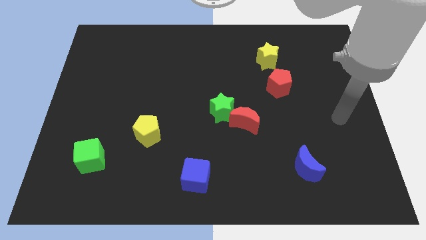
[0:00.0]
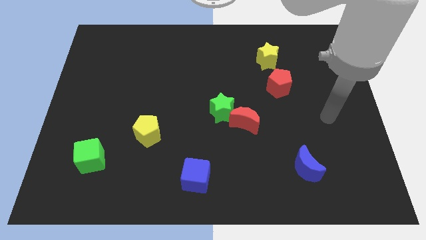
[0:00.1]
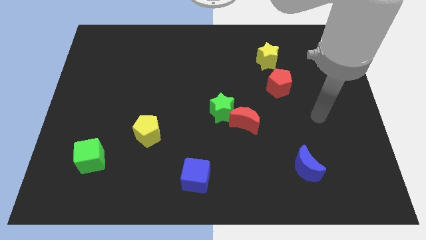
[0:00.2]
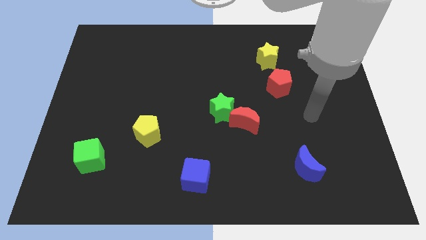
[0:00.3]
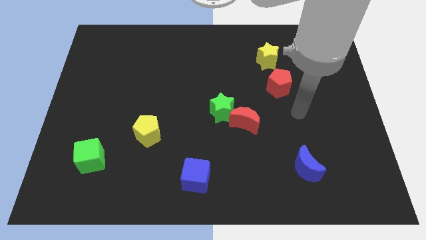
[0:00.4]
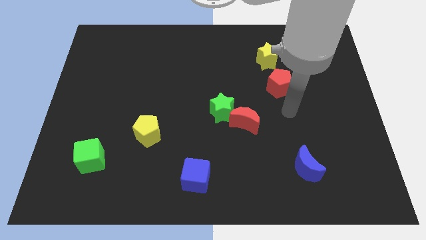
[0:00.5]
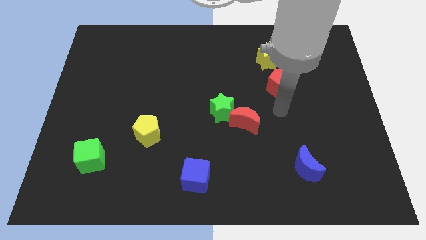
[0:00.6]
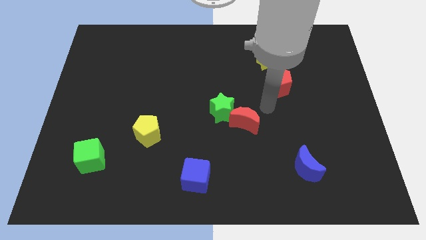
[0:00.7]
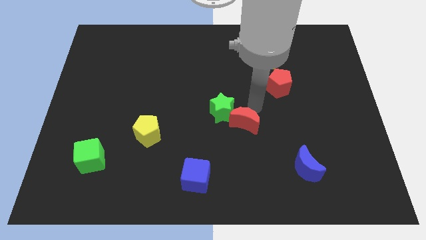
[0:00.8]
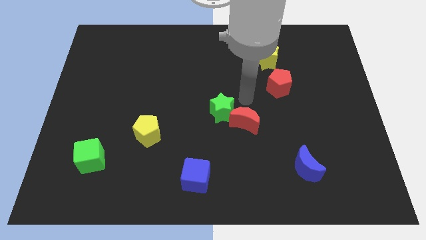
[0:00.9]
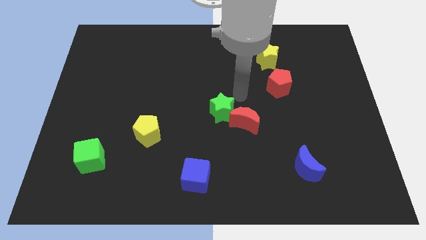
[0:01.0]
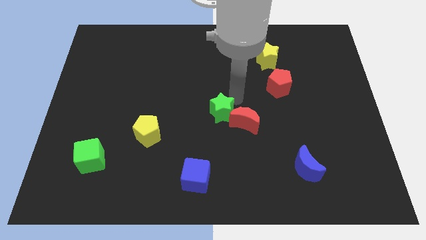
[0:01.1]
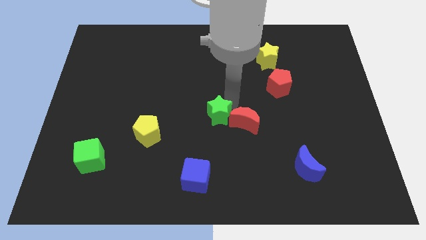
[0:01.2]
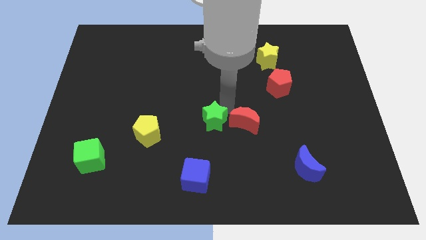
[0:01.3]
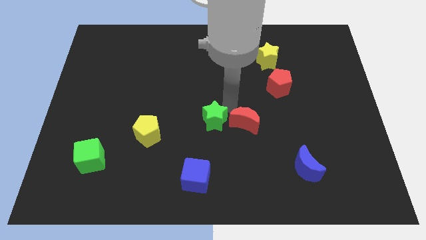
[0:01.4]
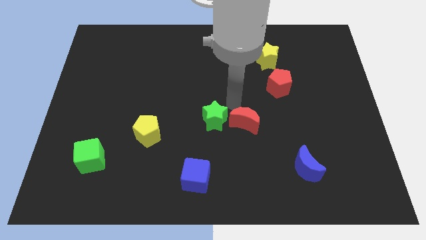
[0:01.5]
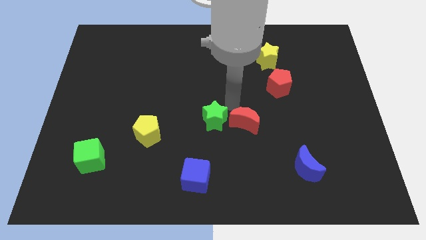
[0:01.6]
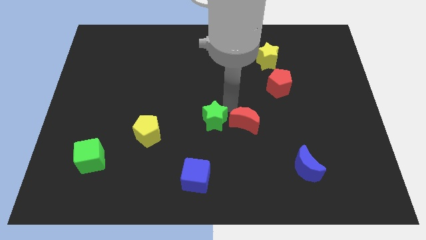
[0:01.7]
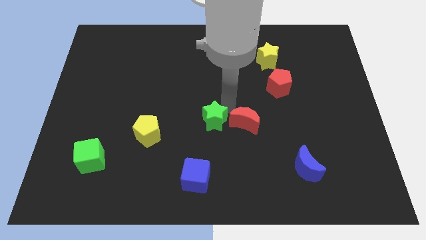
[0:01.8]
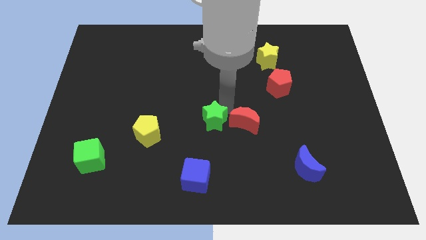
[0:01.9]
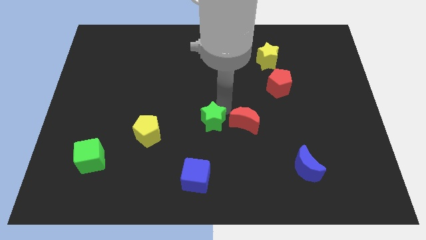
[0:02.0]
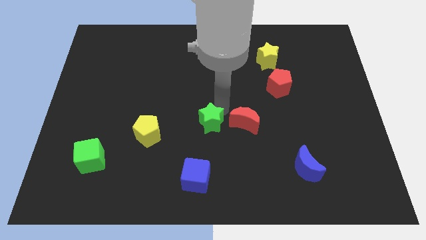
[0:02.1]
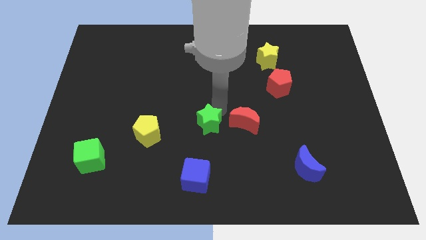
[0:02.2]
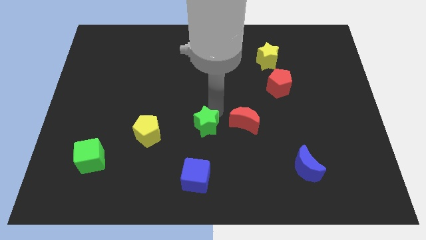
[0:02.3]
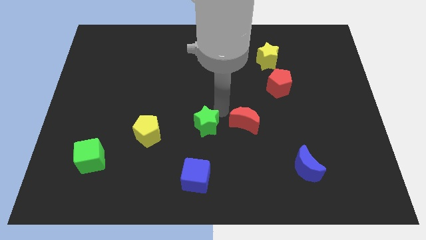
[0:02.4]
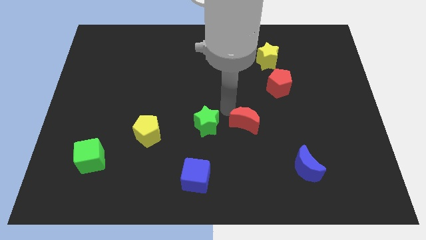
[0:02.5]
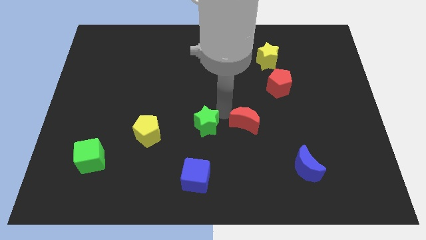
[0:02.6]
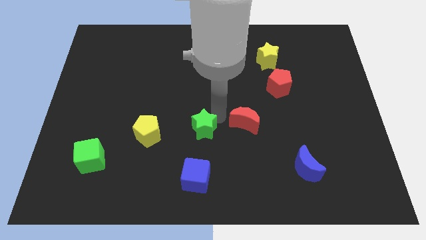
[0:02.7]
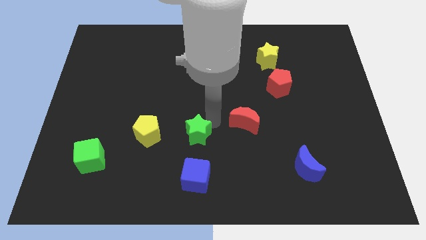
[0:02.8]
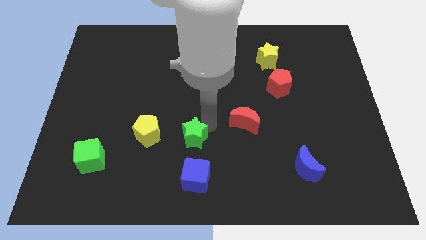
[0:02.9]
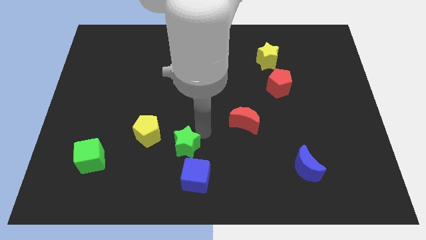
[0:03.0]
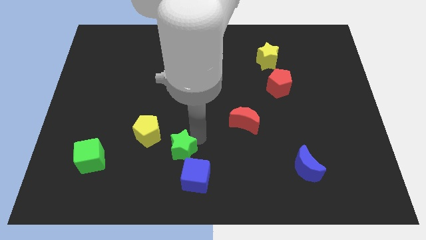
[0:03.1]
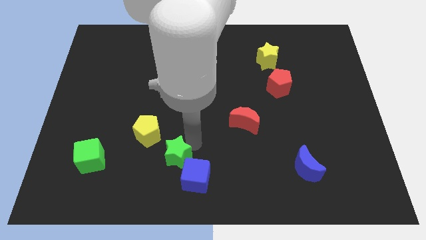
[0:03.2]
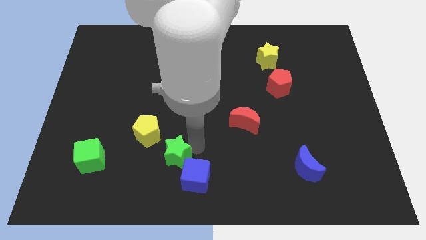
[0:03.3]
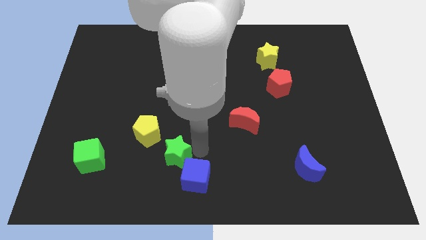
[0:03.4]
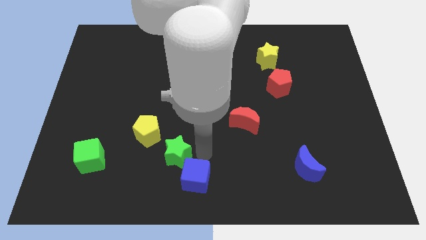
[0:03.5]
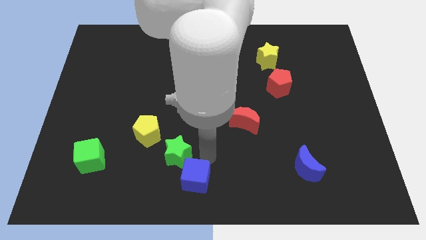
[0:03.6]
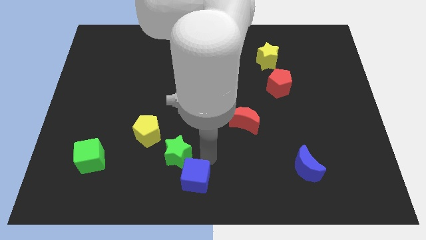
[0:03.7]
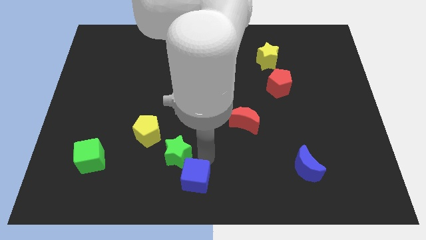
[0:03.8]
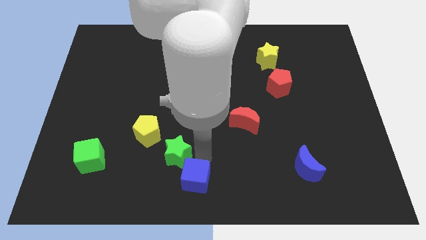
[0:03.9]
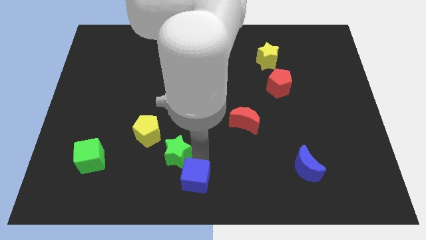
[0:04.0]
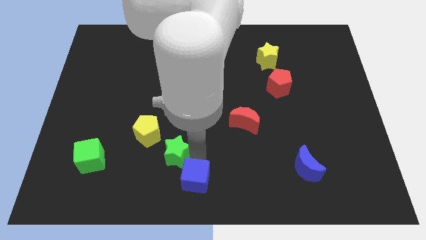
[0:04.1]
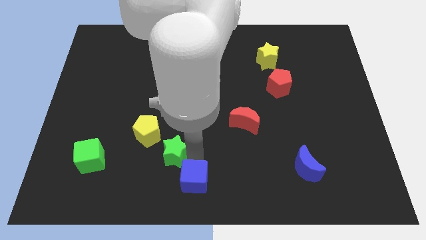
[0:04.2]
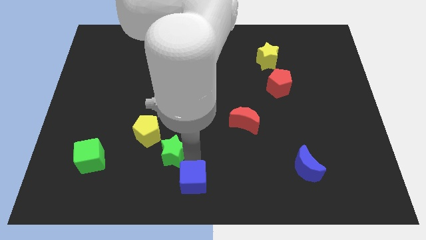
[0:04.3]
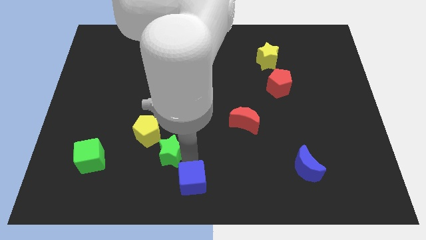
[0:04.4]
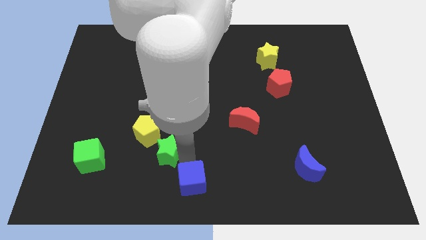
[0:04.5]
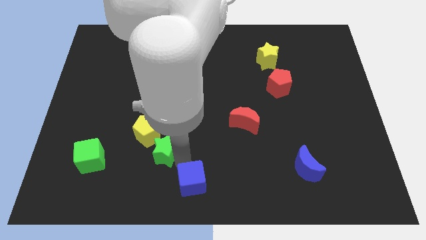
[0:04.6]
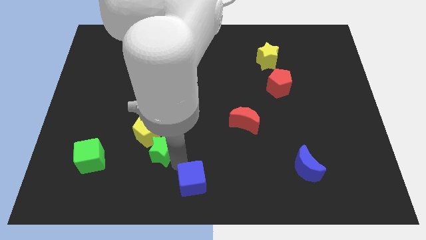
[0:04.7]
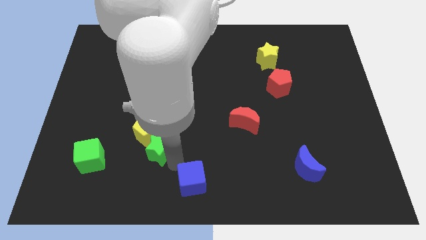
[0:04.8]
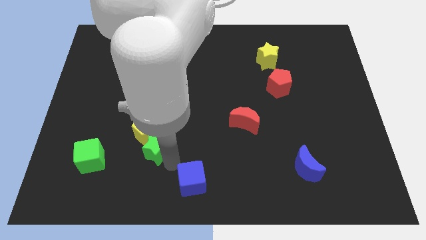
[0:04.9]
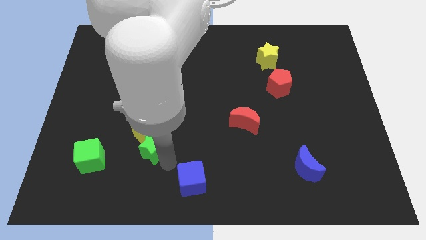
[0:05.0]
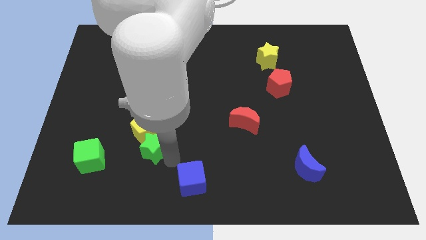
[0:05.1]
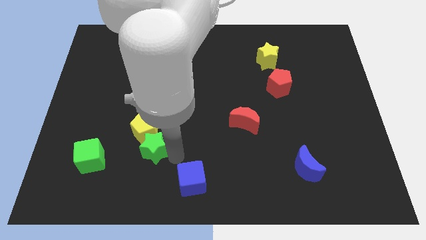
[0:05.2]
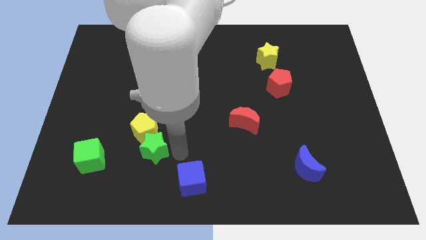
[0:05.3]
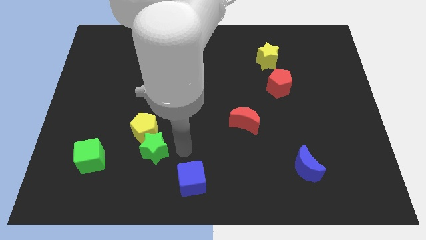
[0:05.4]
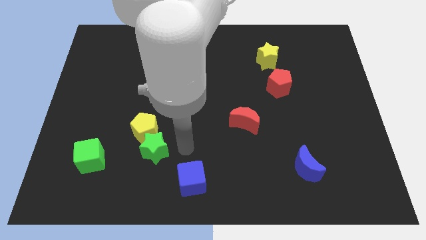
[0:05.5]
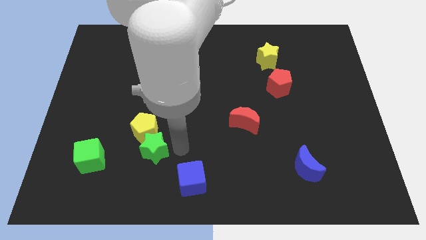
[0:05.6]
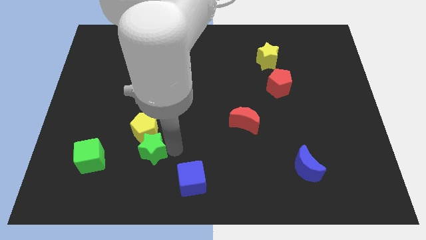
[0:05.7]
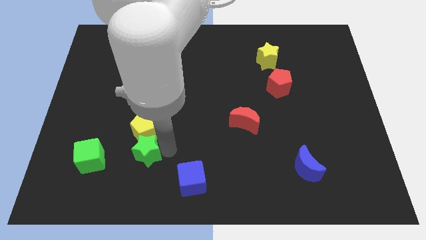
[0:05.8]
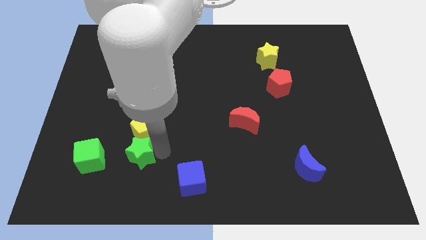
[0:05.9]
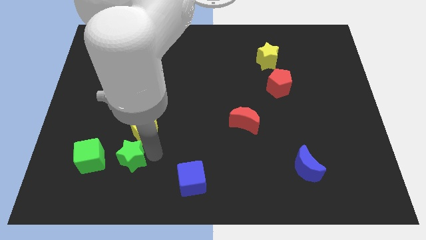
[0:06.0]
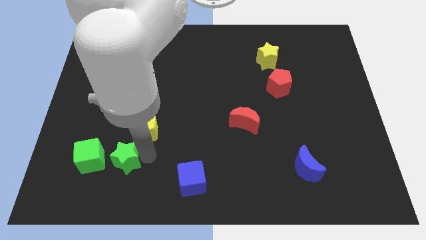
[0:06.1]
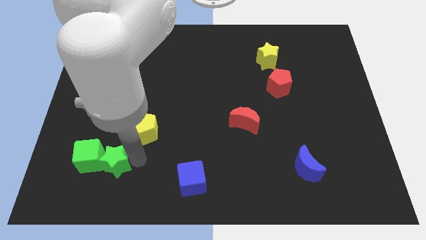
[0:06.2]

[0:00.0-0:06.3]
move the green star to the green cube

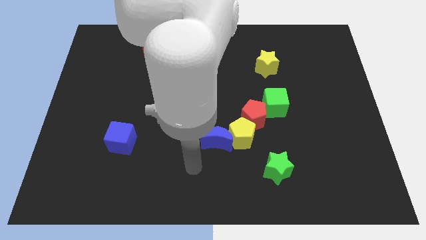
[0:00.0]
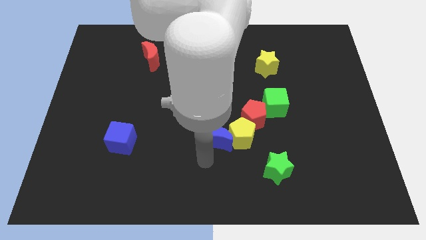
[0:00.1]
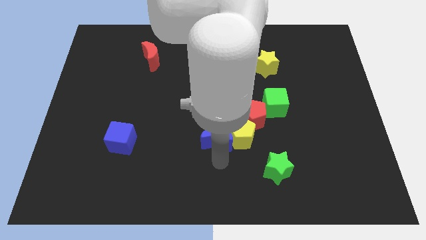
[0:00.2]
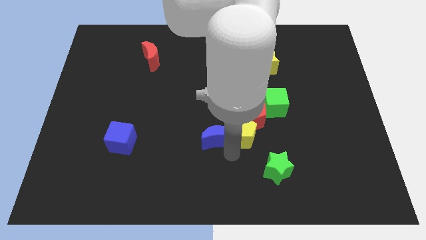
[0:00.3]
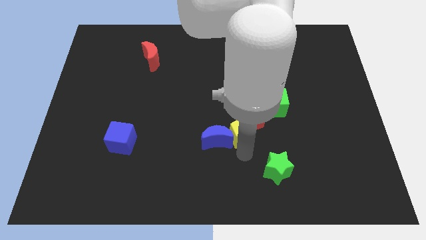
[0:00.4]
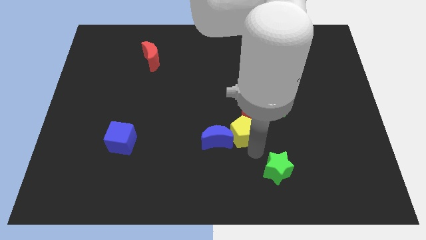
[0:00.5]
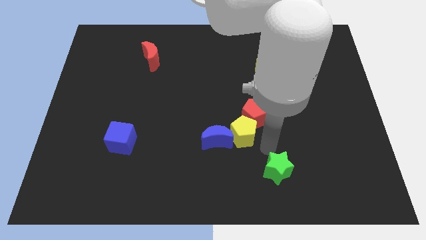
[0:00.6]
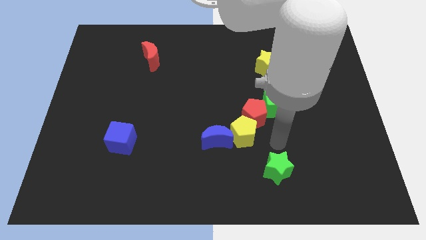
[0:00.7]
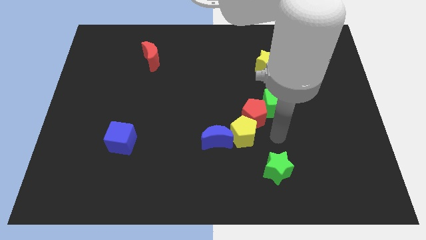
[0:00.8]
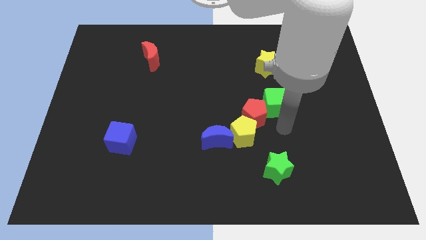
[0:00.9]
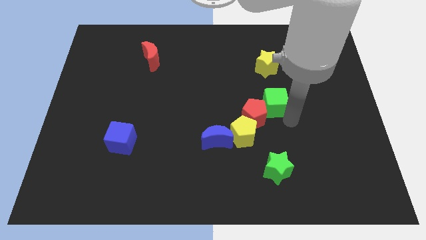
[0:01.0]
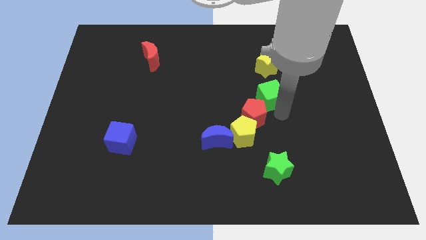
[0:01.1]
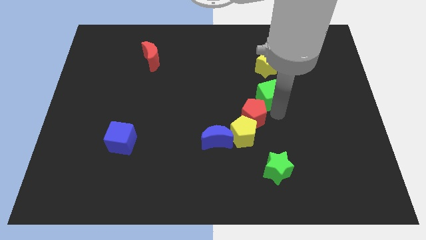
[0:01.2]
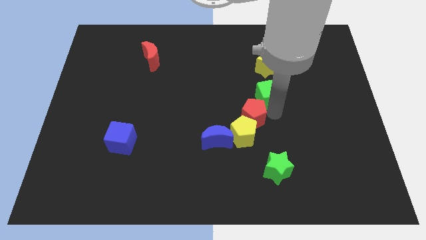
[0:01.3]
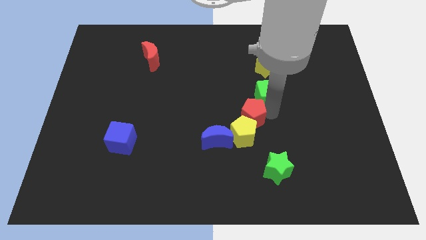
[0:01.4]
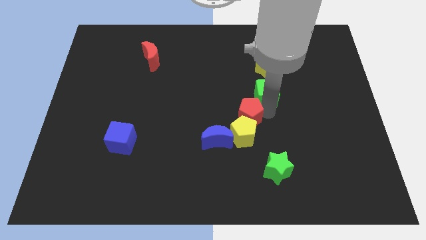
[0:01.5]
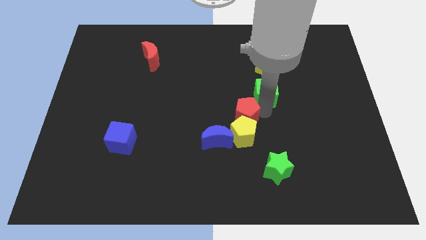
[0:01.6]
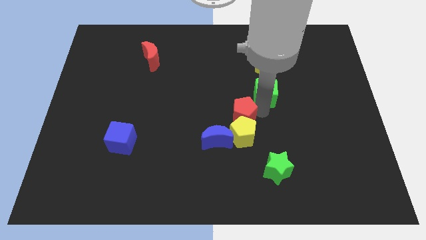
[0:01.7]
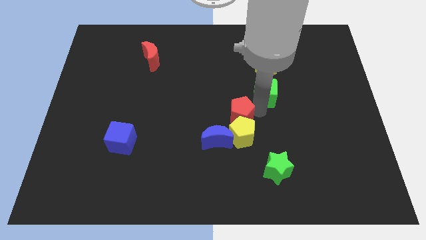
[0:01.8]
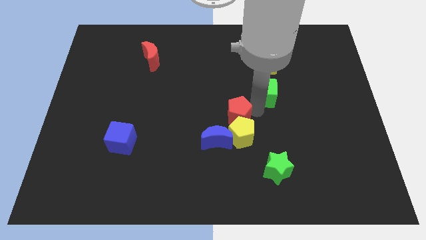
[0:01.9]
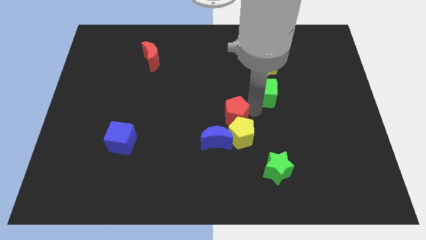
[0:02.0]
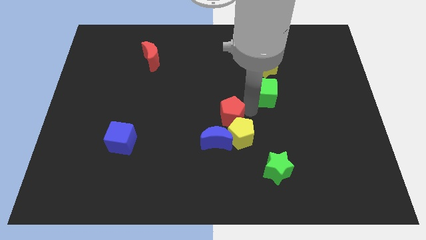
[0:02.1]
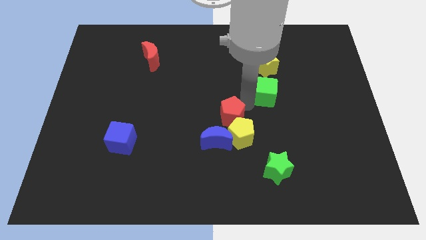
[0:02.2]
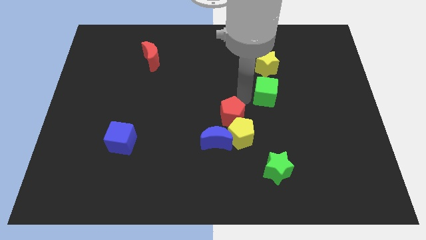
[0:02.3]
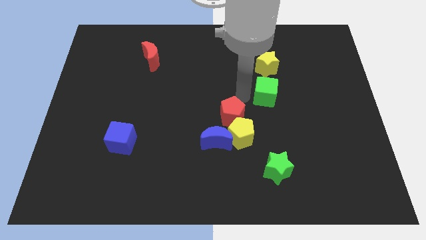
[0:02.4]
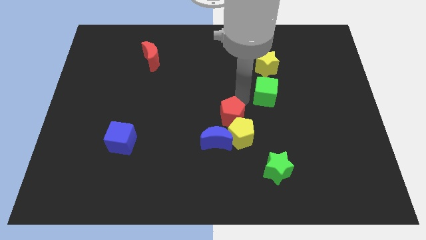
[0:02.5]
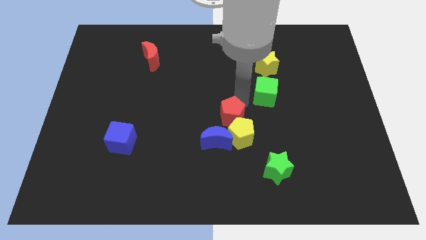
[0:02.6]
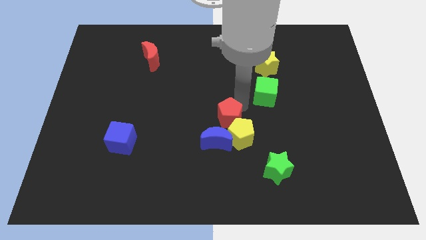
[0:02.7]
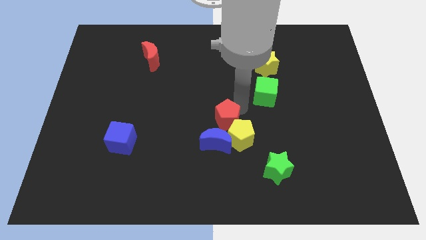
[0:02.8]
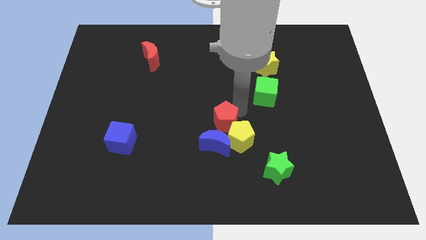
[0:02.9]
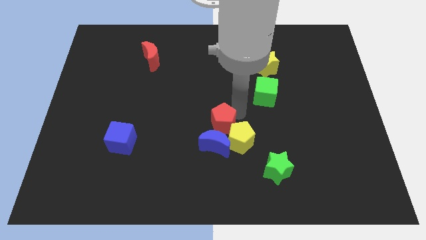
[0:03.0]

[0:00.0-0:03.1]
push the red pentagon to the blue moon
